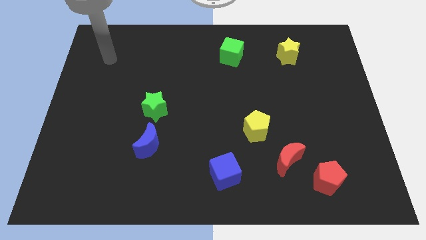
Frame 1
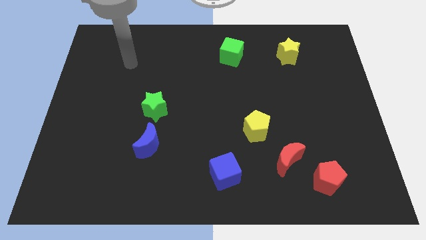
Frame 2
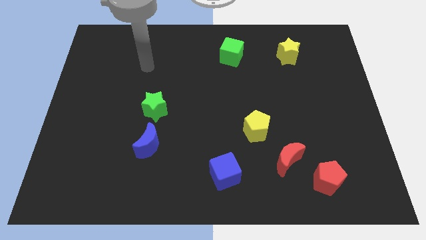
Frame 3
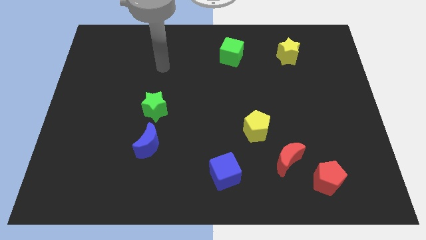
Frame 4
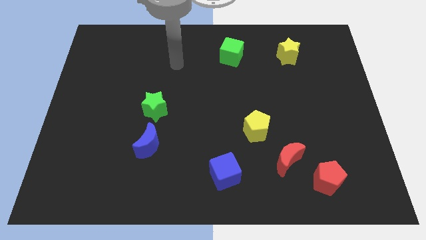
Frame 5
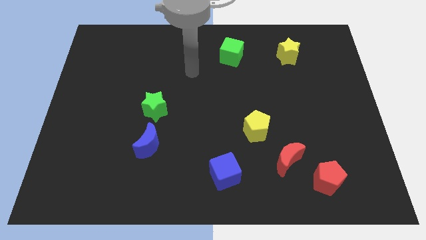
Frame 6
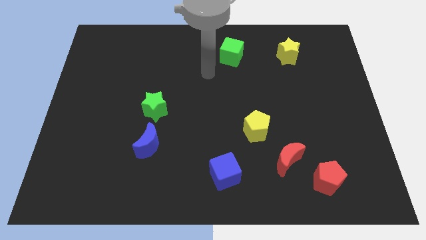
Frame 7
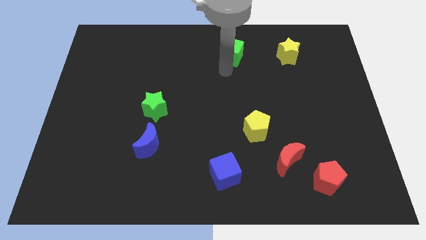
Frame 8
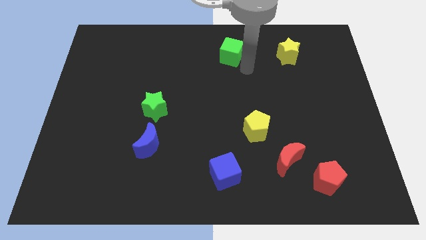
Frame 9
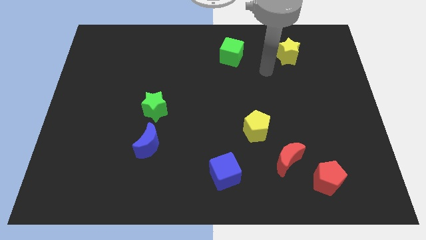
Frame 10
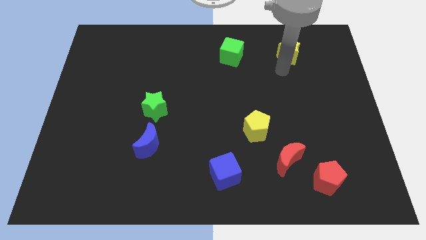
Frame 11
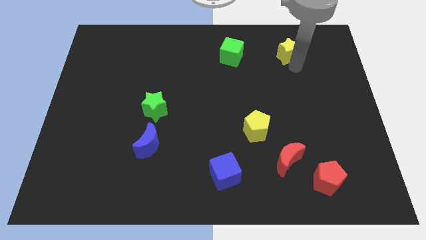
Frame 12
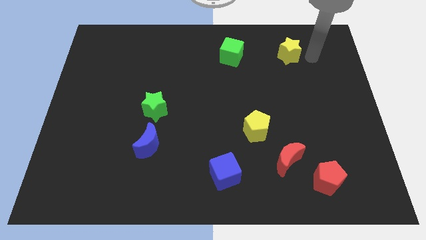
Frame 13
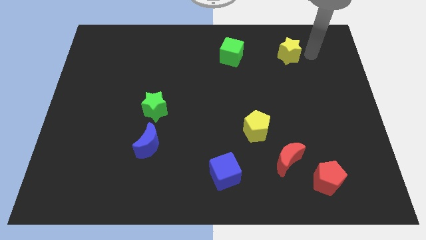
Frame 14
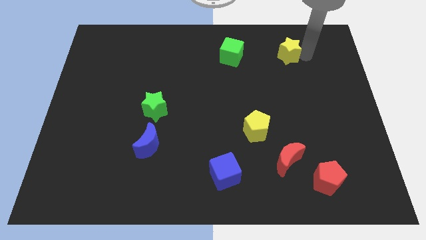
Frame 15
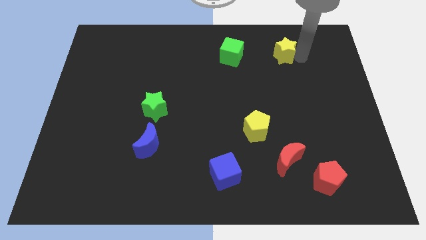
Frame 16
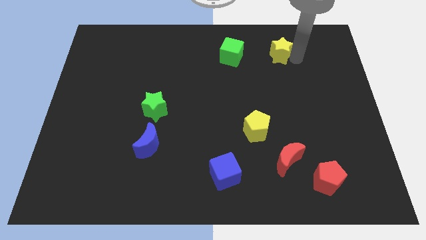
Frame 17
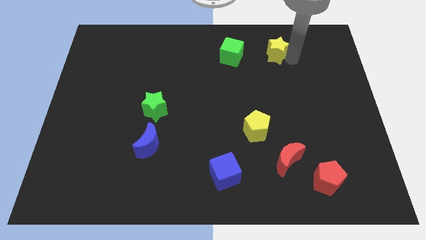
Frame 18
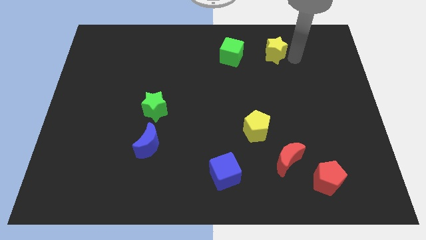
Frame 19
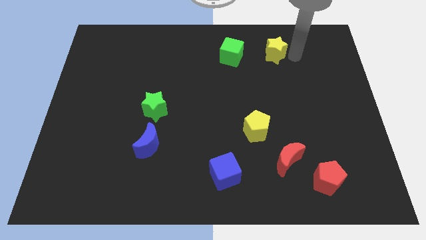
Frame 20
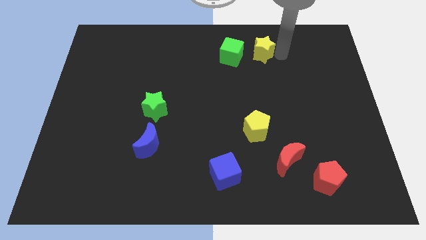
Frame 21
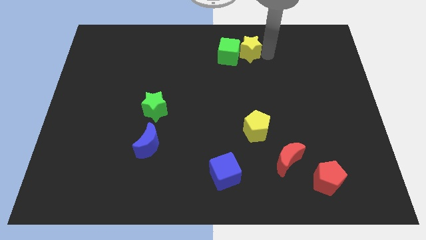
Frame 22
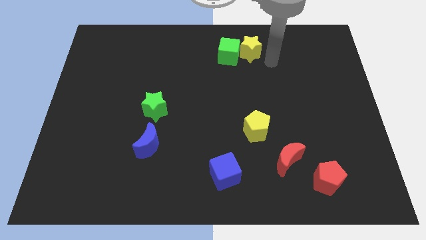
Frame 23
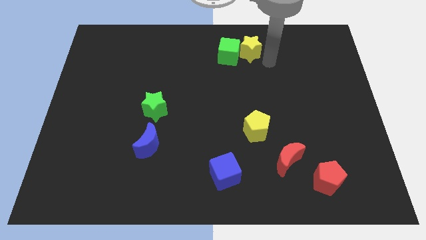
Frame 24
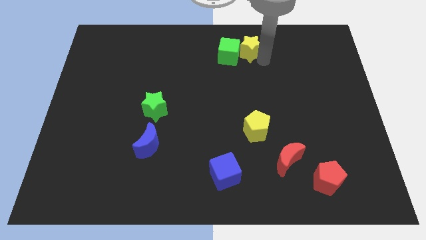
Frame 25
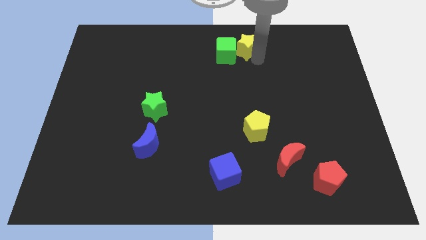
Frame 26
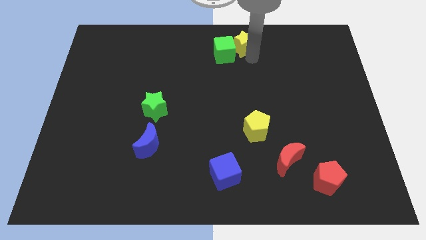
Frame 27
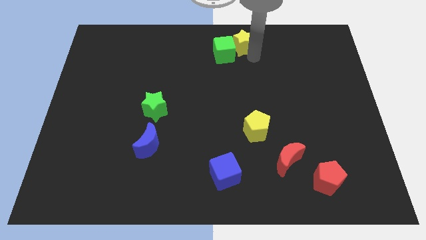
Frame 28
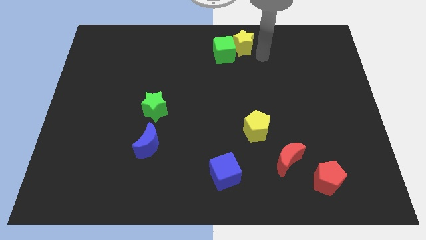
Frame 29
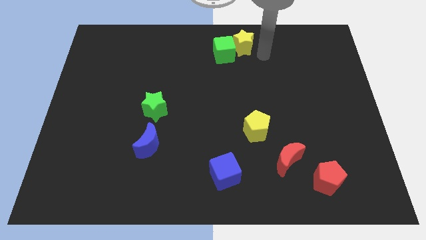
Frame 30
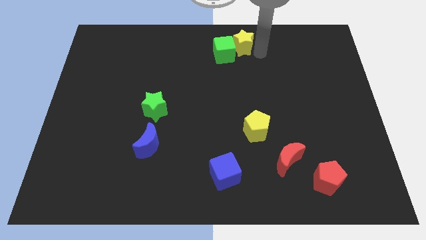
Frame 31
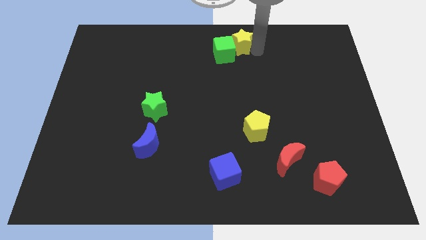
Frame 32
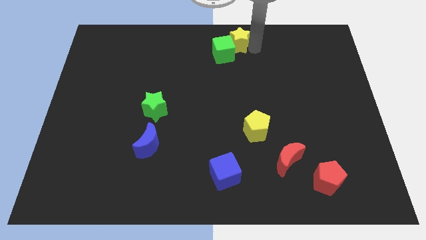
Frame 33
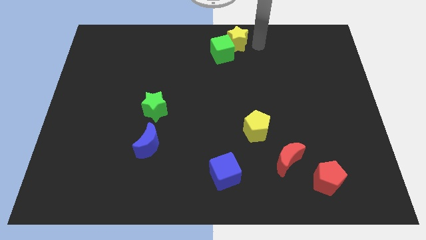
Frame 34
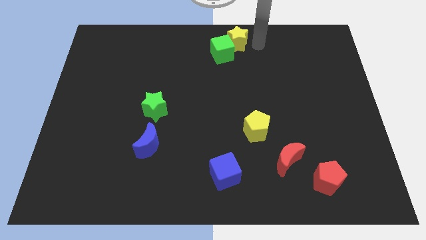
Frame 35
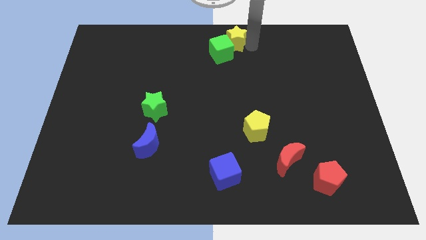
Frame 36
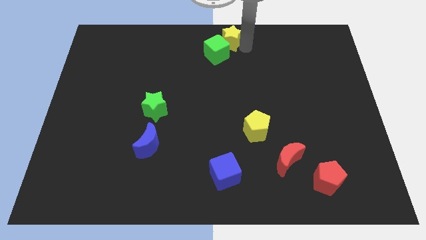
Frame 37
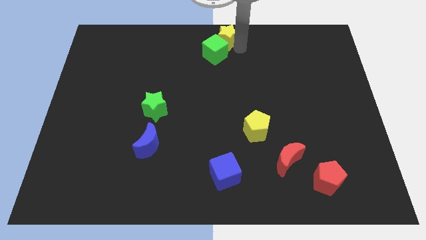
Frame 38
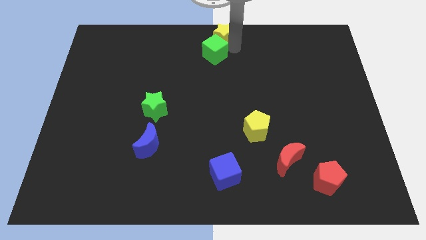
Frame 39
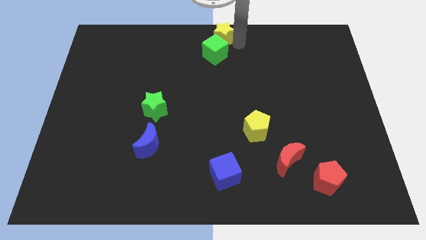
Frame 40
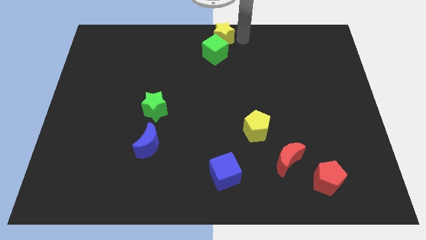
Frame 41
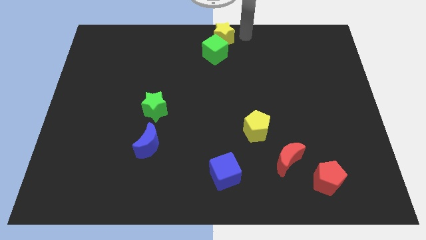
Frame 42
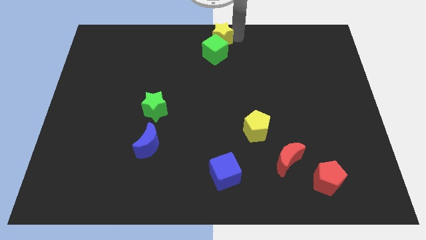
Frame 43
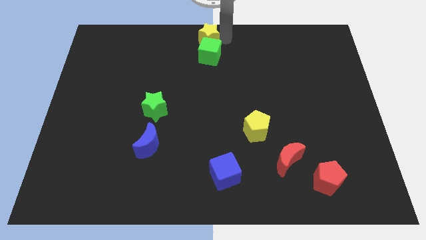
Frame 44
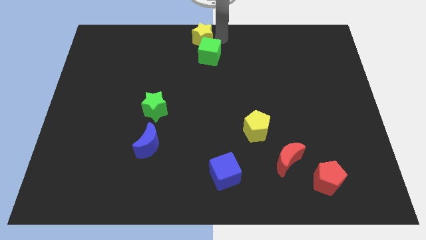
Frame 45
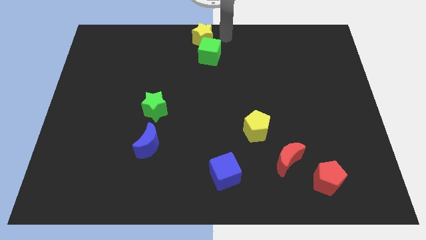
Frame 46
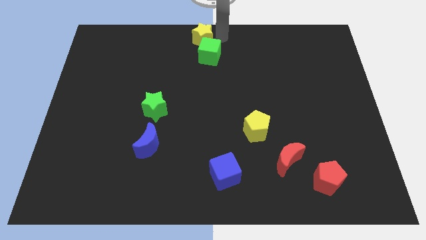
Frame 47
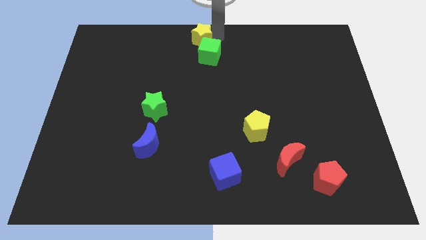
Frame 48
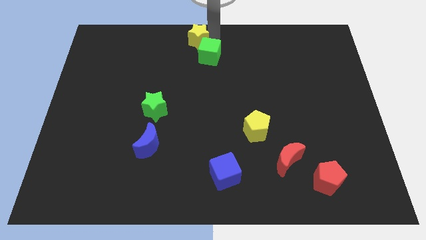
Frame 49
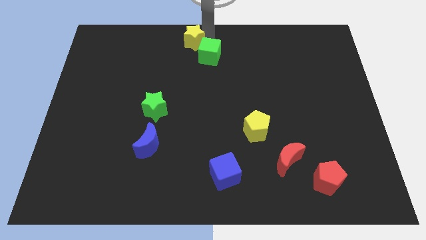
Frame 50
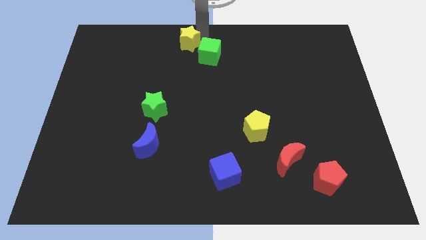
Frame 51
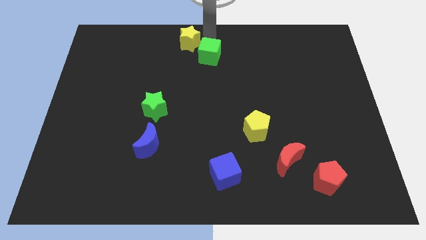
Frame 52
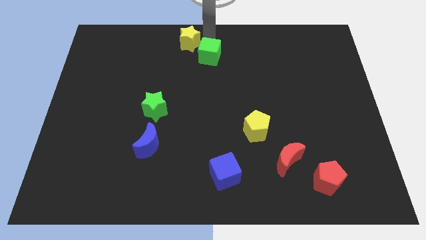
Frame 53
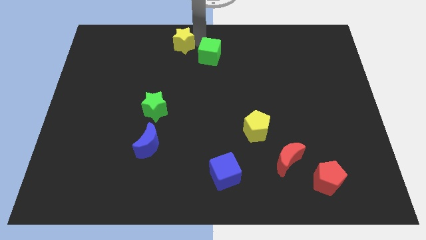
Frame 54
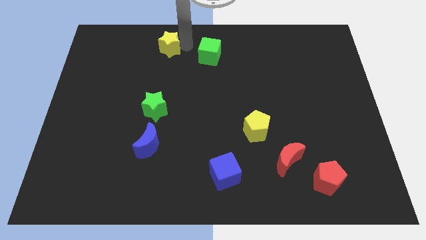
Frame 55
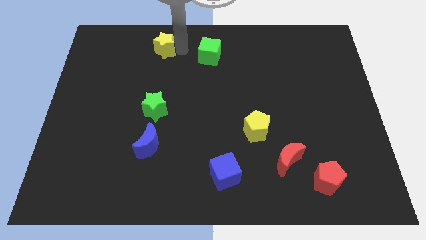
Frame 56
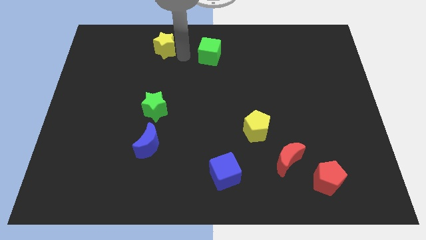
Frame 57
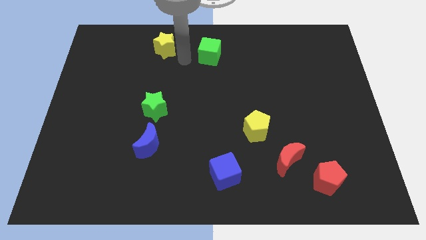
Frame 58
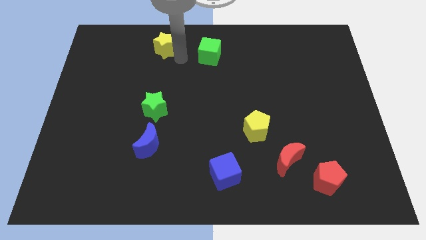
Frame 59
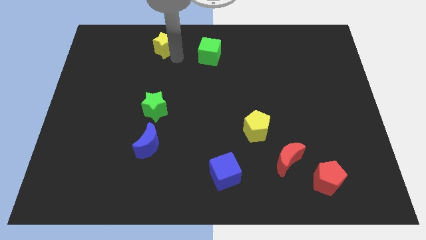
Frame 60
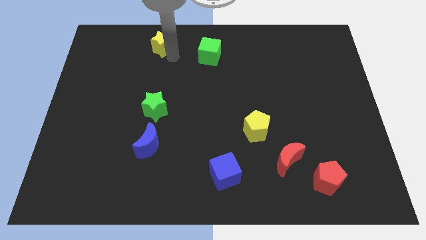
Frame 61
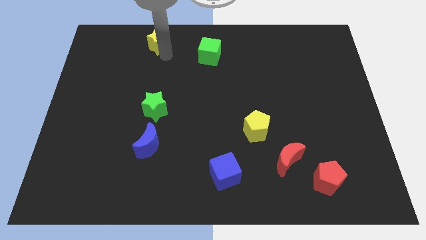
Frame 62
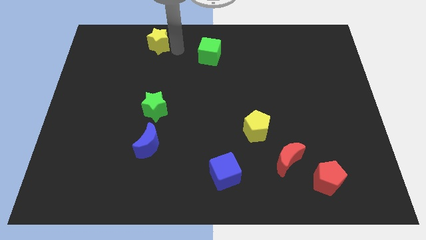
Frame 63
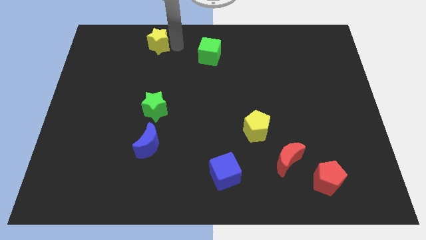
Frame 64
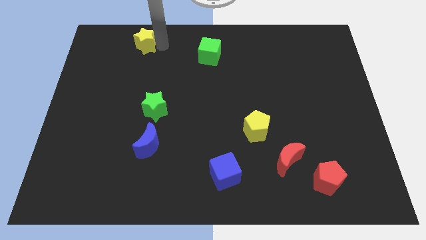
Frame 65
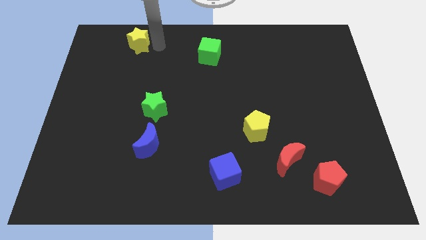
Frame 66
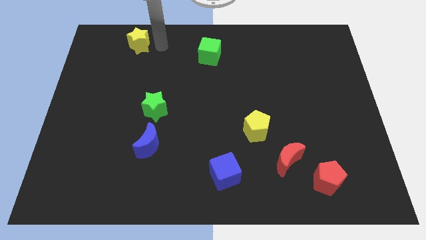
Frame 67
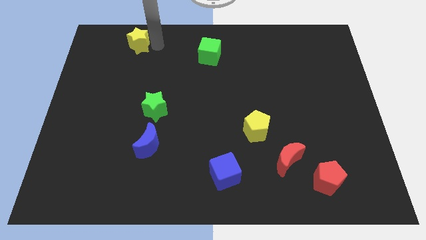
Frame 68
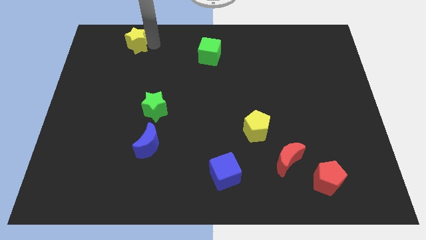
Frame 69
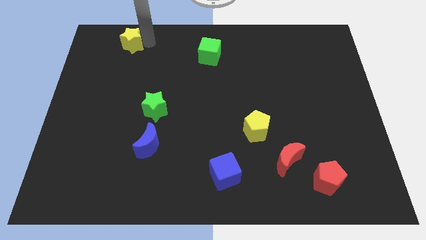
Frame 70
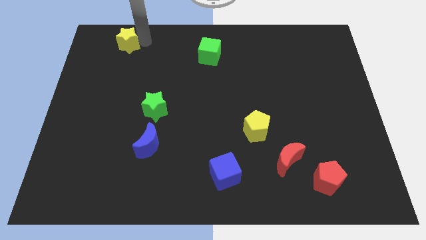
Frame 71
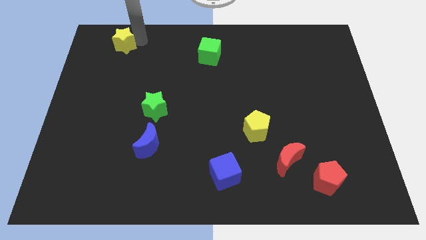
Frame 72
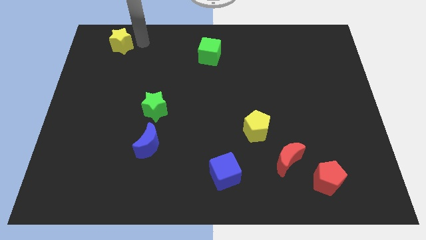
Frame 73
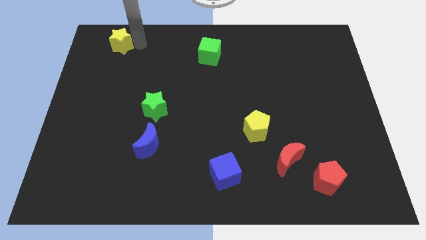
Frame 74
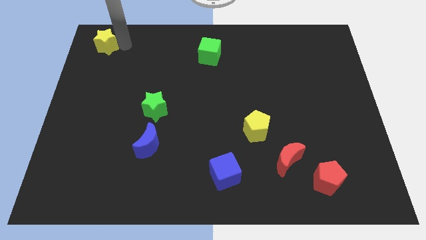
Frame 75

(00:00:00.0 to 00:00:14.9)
put the yellow star to the upper left corner
